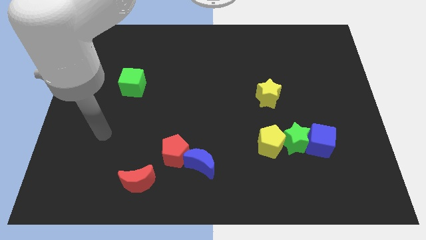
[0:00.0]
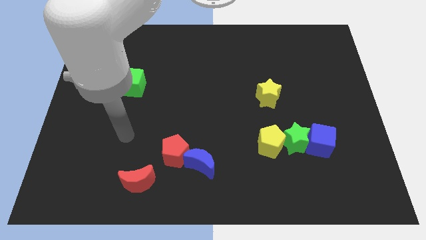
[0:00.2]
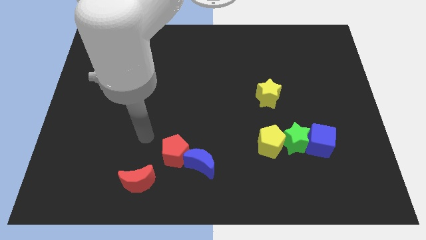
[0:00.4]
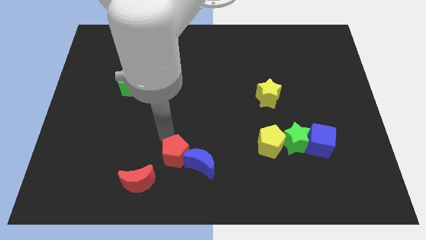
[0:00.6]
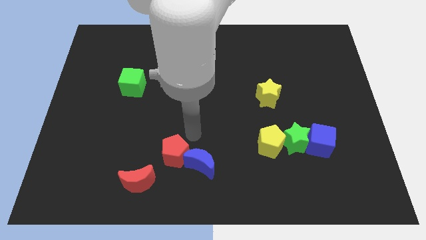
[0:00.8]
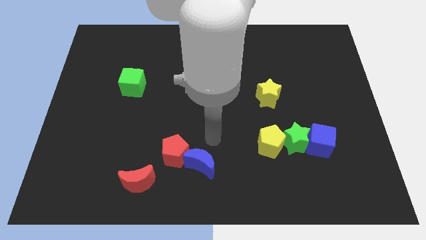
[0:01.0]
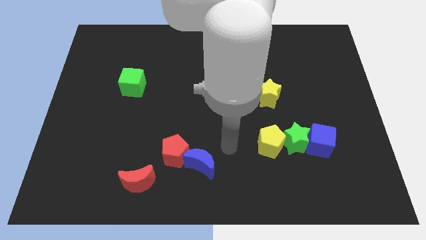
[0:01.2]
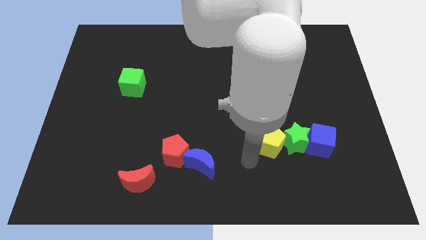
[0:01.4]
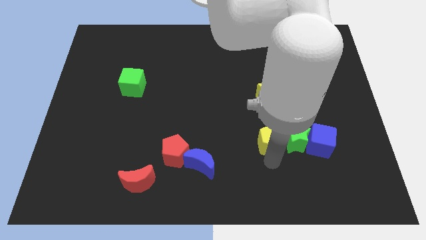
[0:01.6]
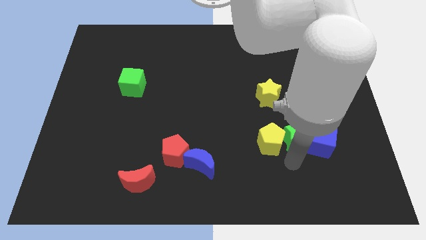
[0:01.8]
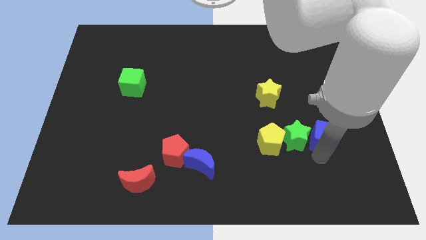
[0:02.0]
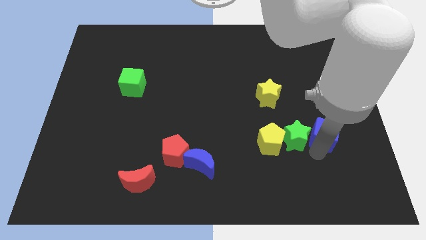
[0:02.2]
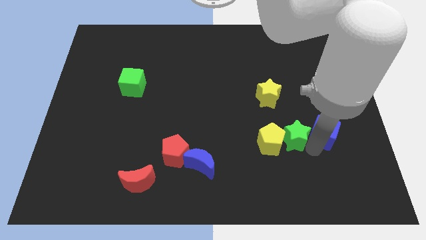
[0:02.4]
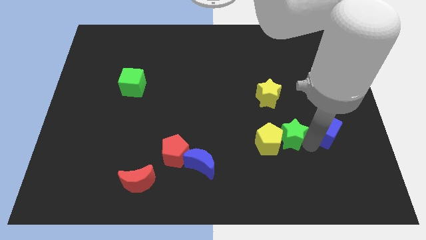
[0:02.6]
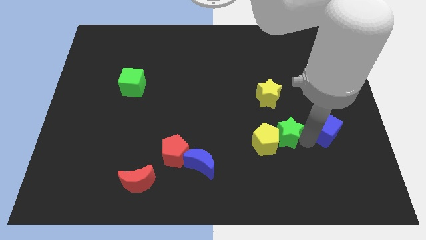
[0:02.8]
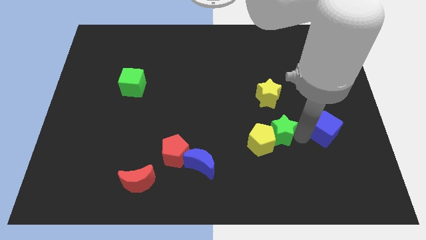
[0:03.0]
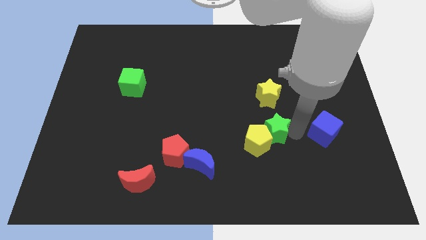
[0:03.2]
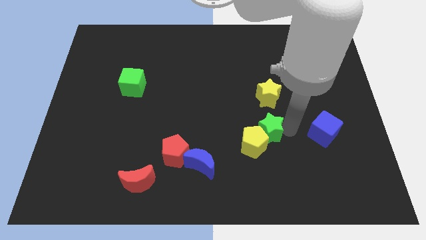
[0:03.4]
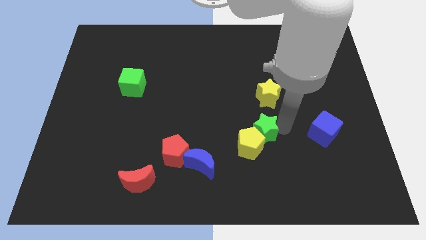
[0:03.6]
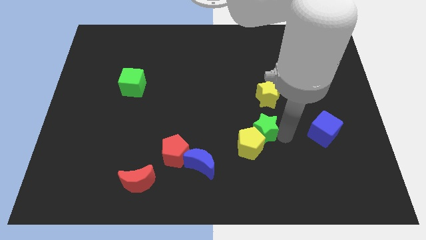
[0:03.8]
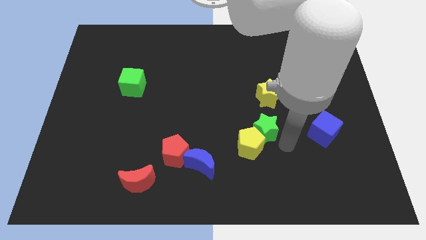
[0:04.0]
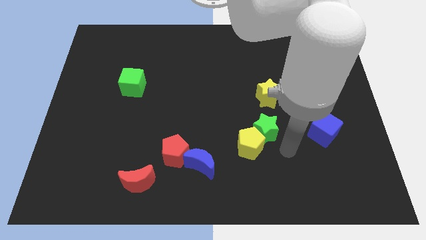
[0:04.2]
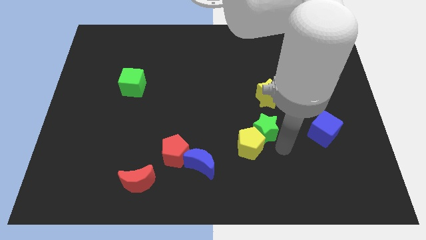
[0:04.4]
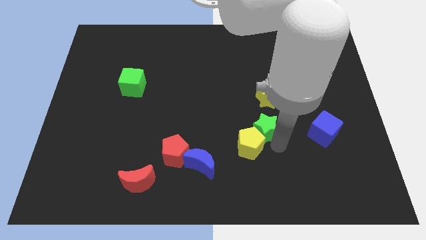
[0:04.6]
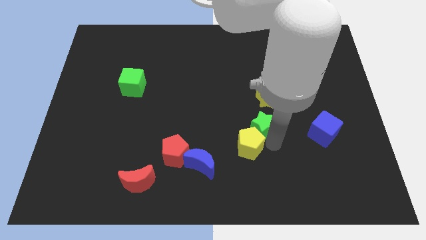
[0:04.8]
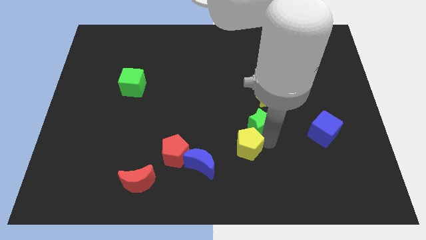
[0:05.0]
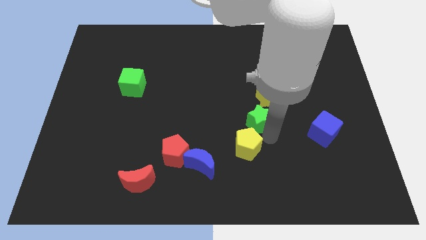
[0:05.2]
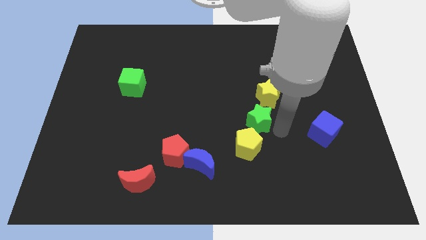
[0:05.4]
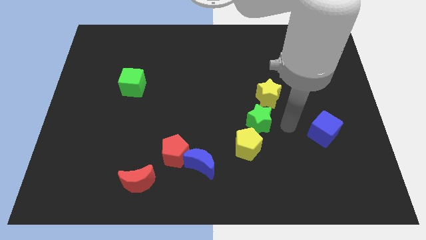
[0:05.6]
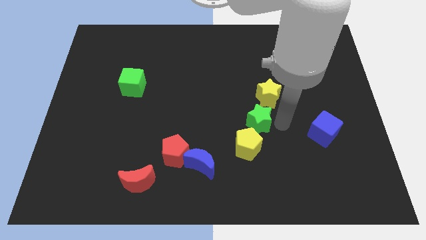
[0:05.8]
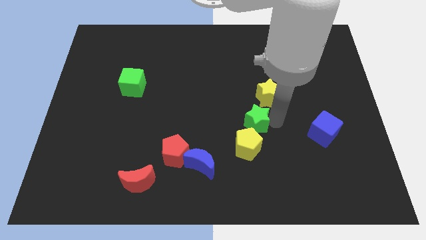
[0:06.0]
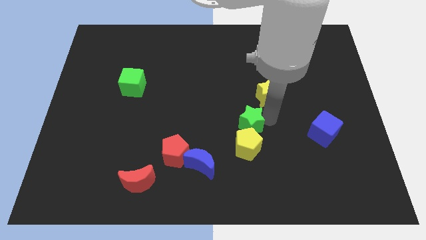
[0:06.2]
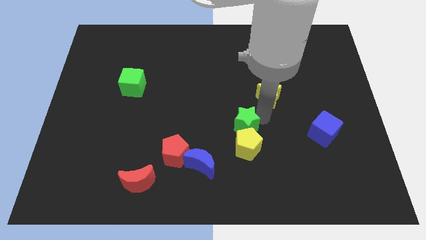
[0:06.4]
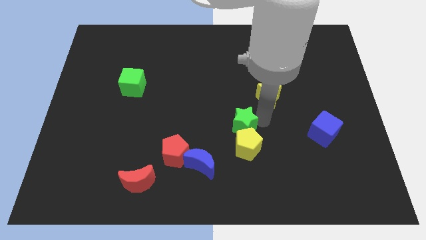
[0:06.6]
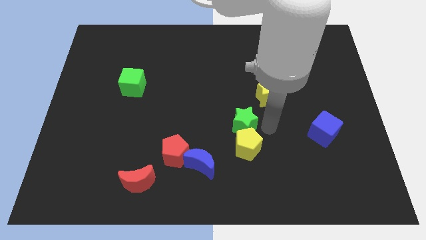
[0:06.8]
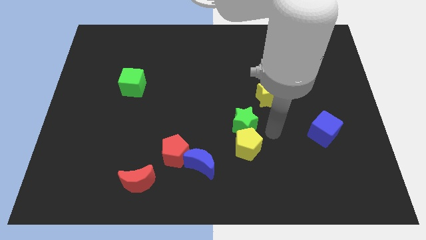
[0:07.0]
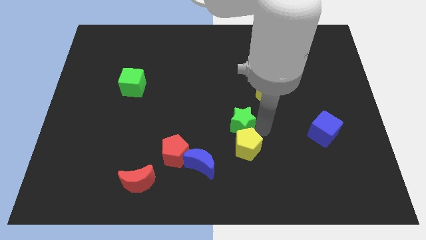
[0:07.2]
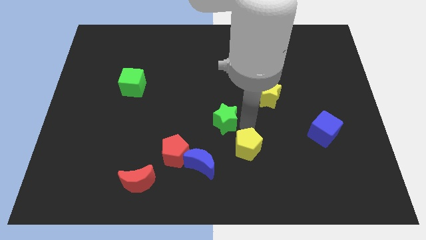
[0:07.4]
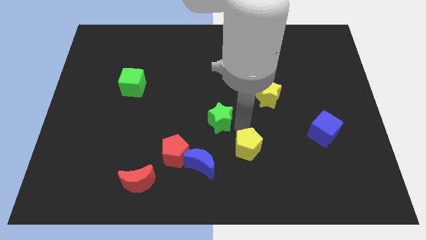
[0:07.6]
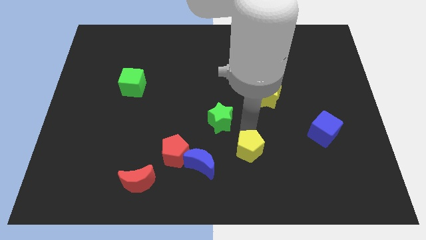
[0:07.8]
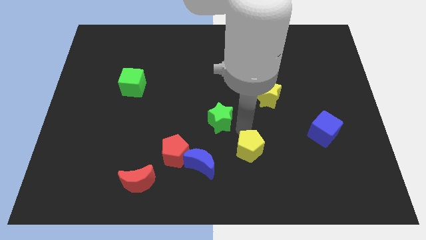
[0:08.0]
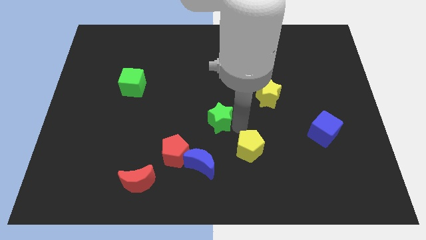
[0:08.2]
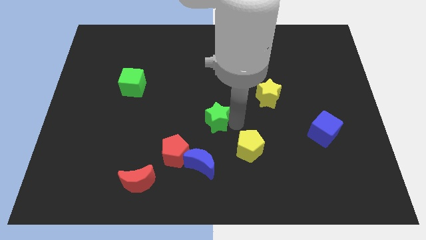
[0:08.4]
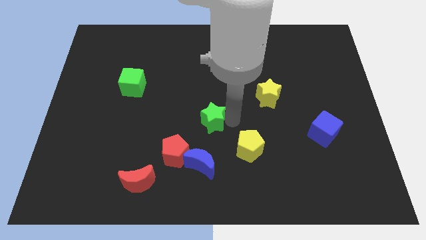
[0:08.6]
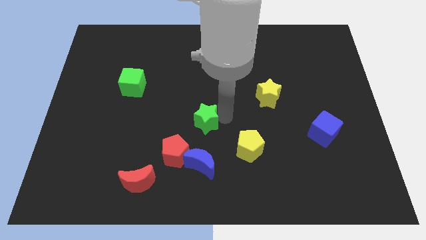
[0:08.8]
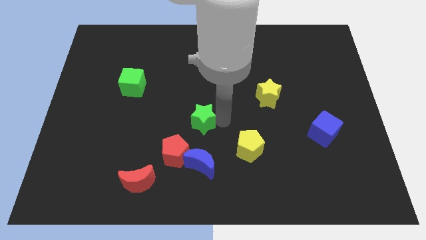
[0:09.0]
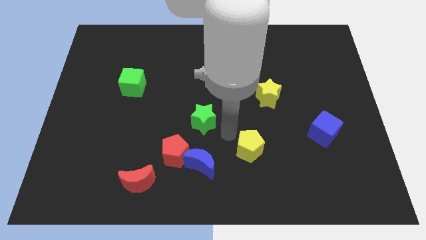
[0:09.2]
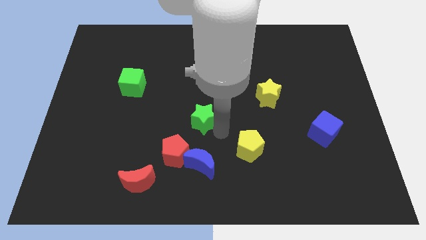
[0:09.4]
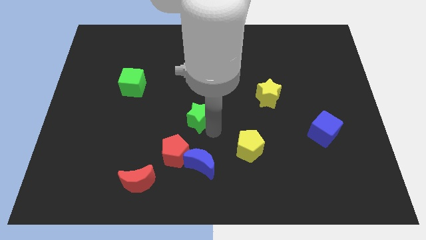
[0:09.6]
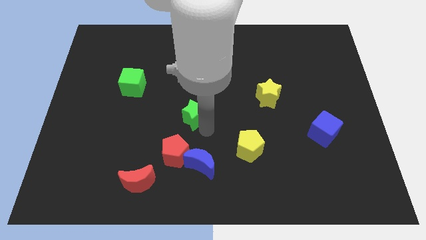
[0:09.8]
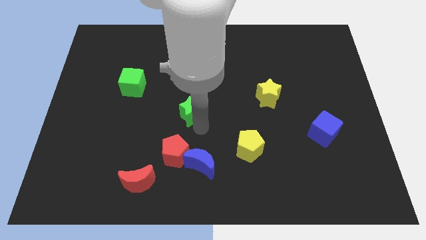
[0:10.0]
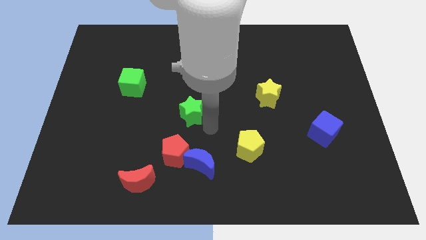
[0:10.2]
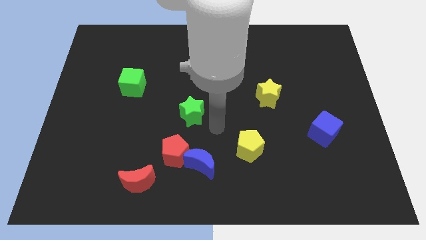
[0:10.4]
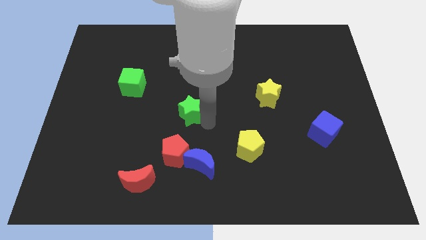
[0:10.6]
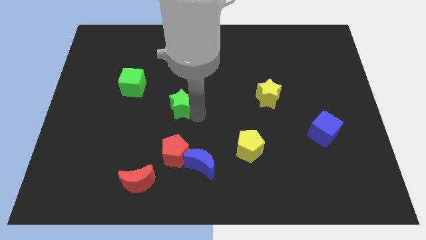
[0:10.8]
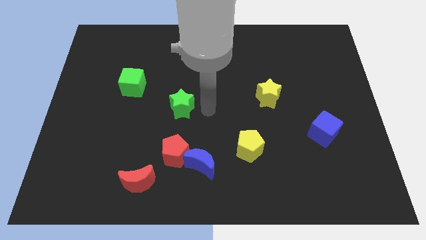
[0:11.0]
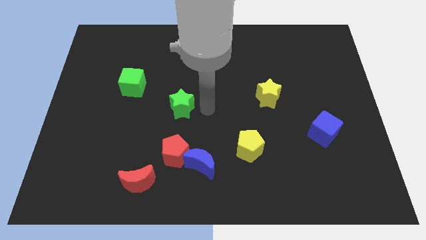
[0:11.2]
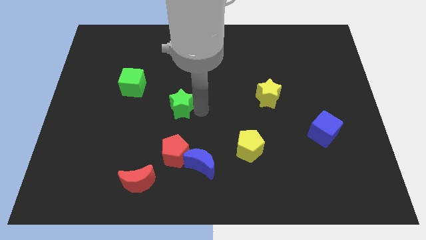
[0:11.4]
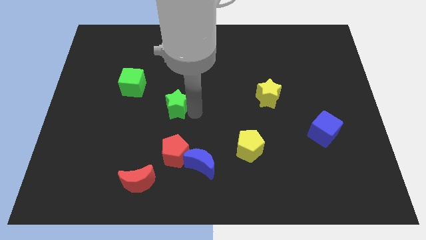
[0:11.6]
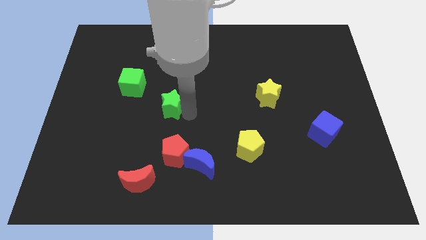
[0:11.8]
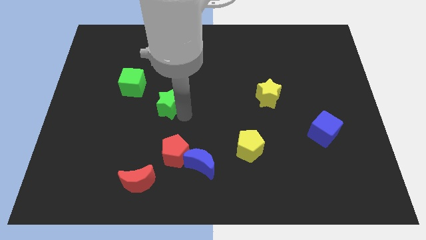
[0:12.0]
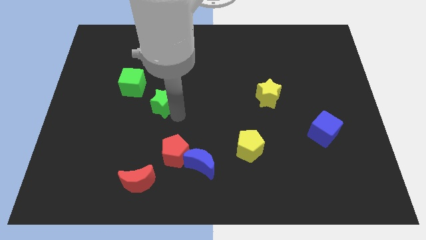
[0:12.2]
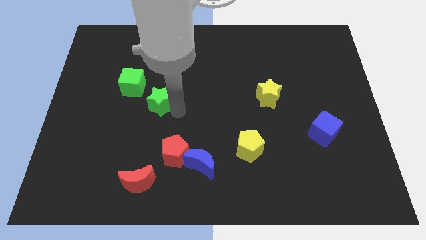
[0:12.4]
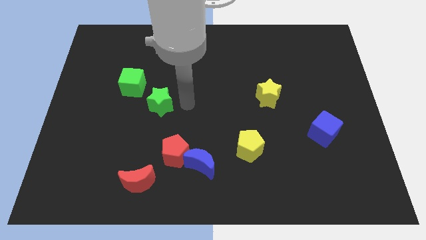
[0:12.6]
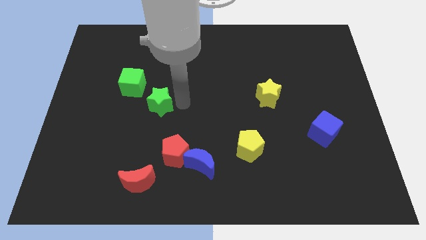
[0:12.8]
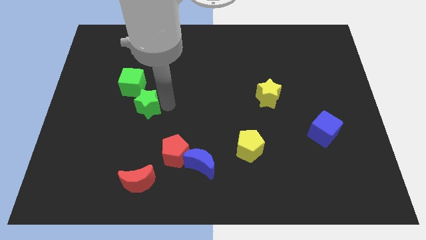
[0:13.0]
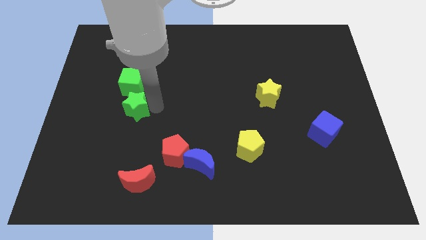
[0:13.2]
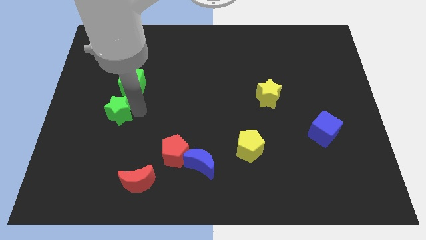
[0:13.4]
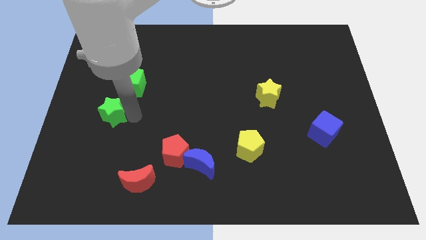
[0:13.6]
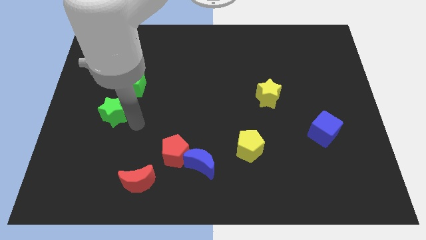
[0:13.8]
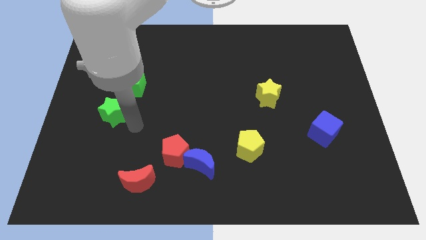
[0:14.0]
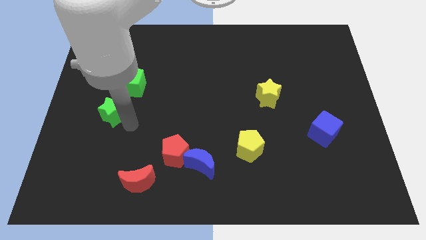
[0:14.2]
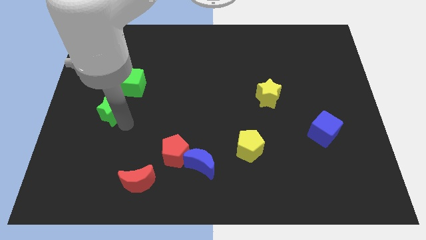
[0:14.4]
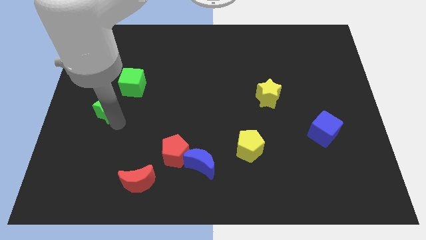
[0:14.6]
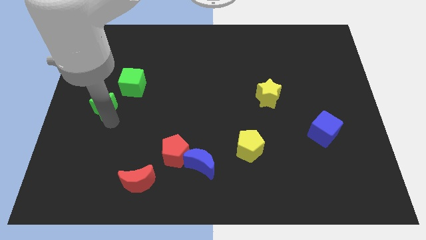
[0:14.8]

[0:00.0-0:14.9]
move the green star to the center left
